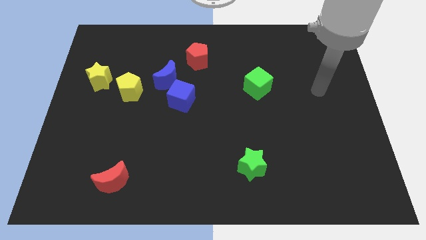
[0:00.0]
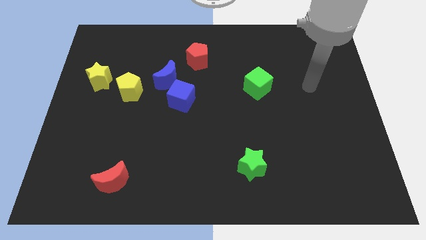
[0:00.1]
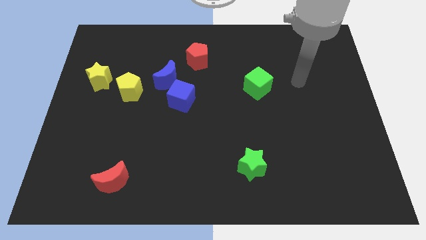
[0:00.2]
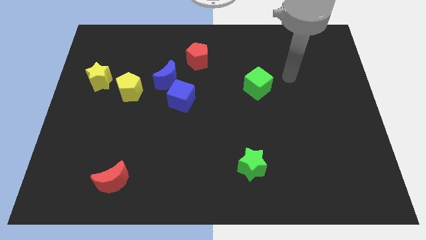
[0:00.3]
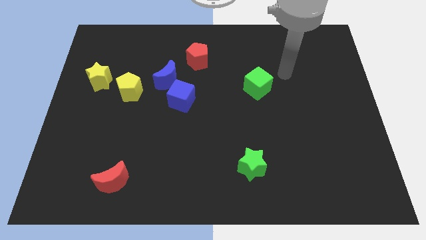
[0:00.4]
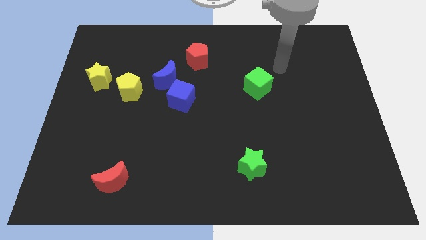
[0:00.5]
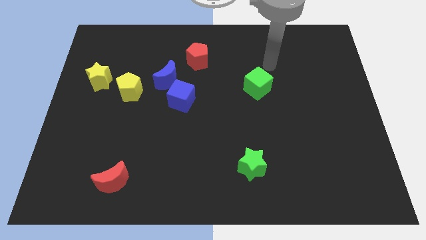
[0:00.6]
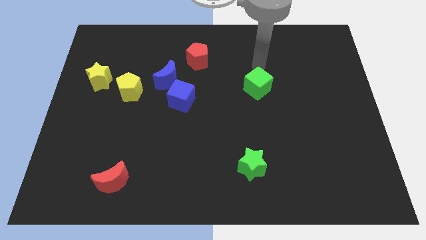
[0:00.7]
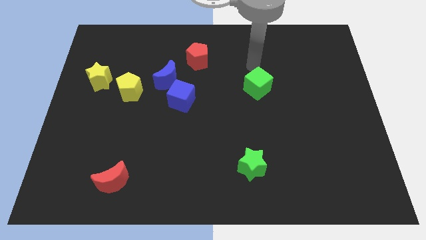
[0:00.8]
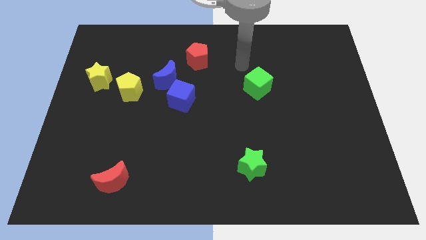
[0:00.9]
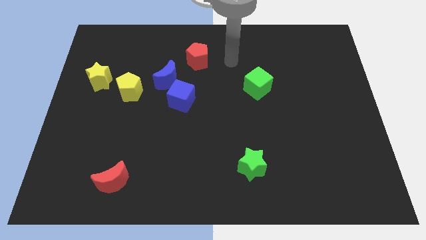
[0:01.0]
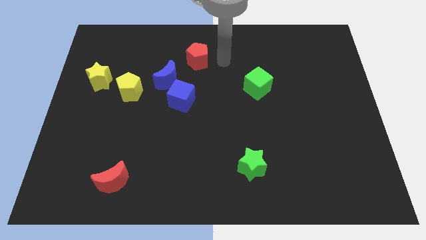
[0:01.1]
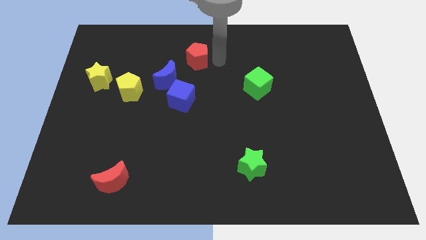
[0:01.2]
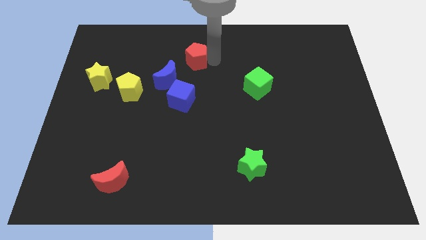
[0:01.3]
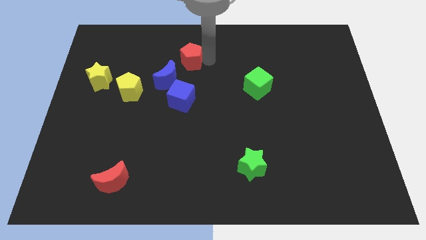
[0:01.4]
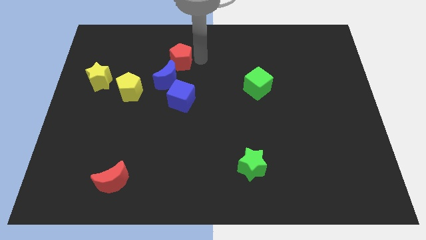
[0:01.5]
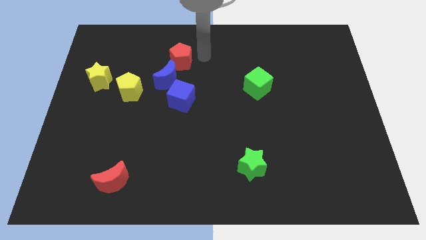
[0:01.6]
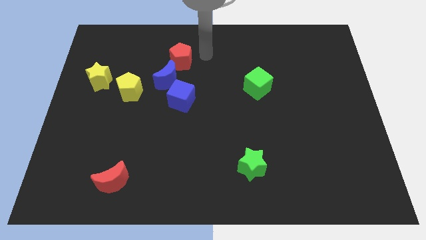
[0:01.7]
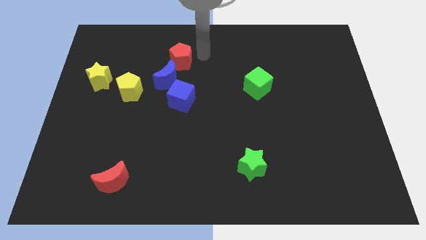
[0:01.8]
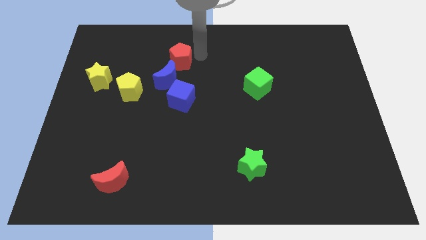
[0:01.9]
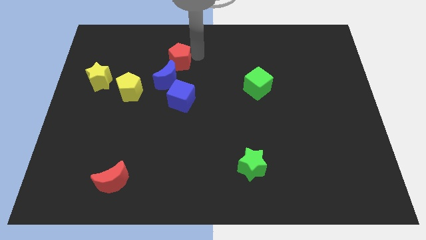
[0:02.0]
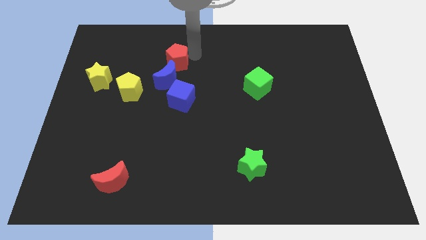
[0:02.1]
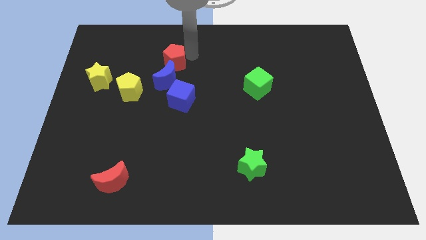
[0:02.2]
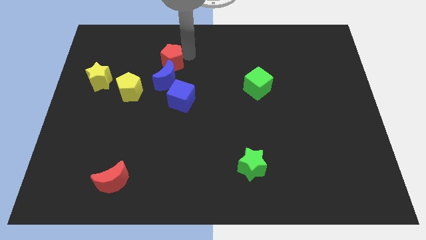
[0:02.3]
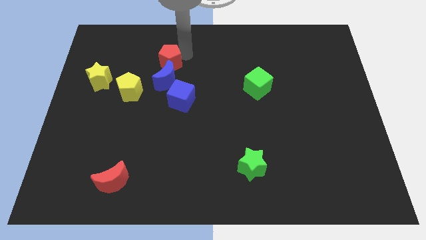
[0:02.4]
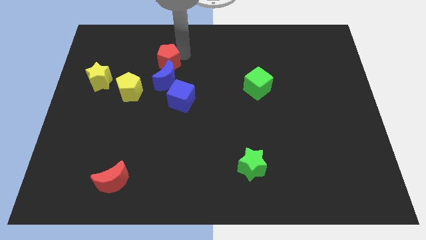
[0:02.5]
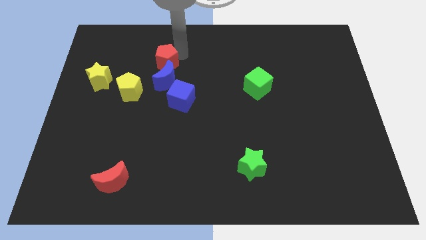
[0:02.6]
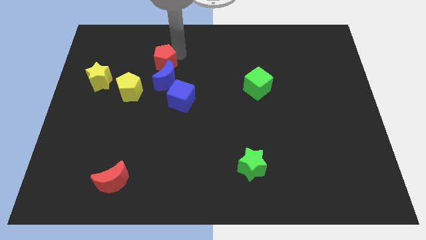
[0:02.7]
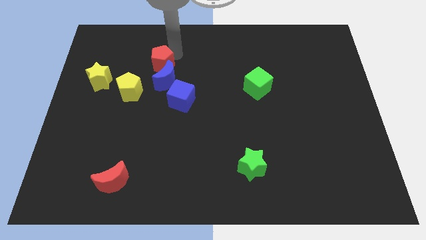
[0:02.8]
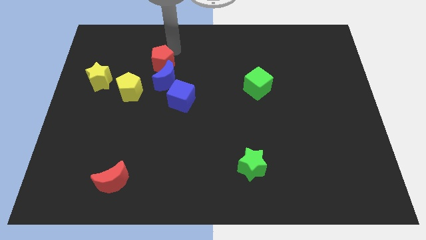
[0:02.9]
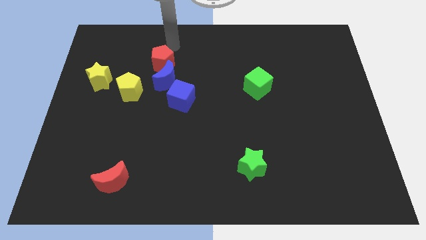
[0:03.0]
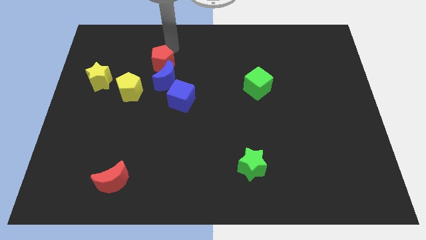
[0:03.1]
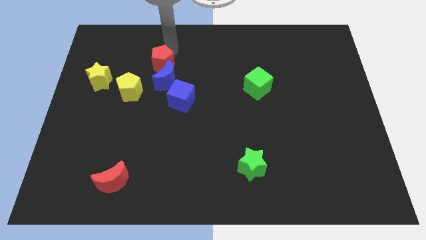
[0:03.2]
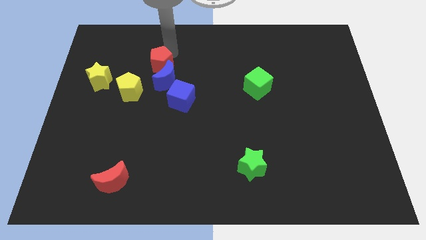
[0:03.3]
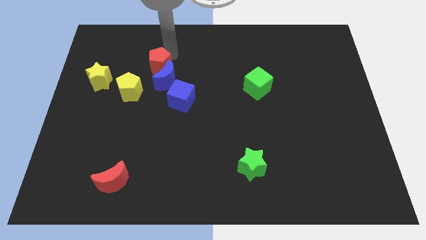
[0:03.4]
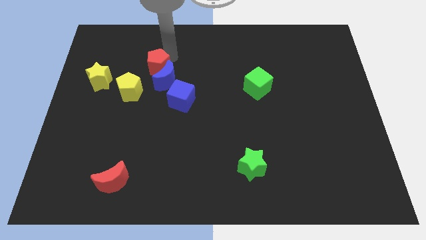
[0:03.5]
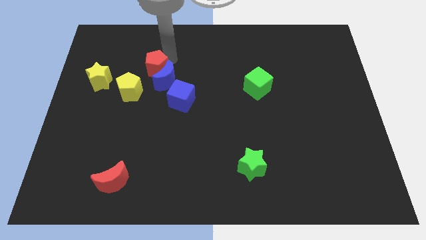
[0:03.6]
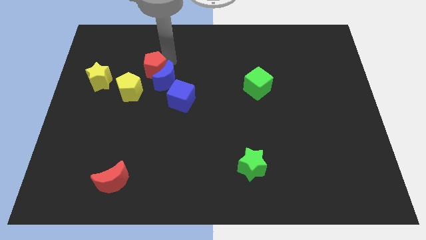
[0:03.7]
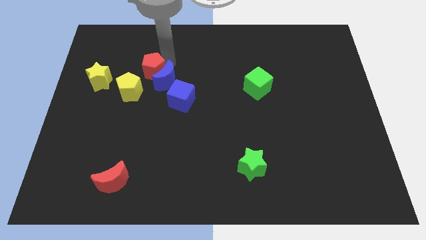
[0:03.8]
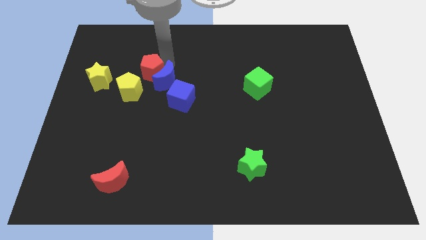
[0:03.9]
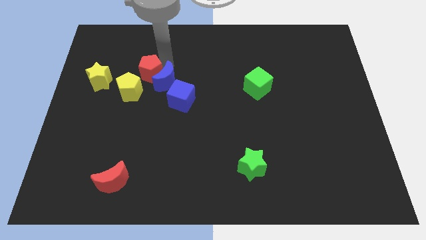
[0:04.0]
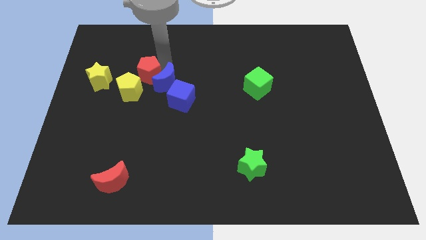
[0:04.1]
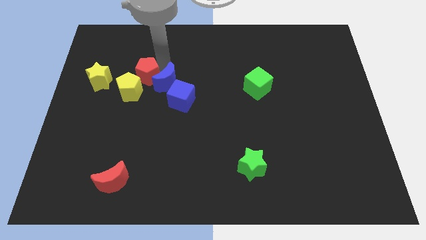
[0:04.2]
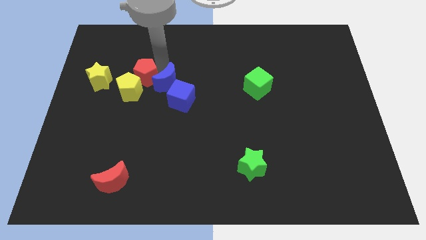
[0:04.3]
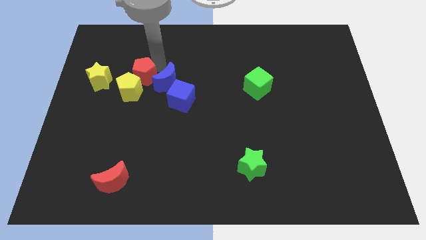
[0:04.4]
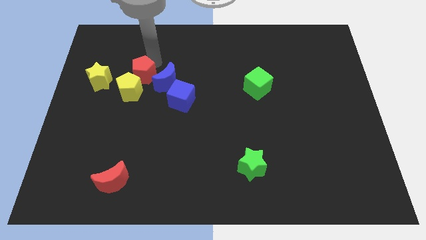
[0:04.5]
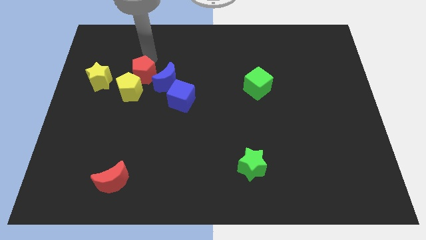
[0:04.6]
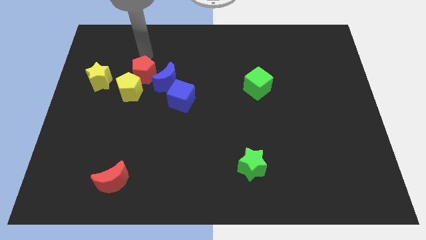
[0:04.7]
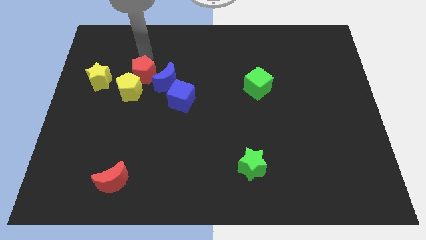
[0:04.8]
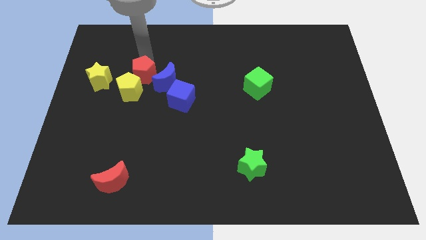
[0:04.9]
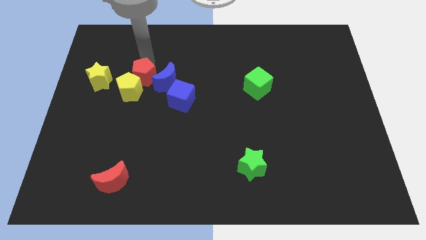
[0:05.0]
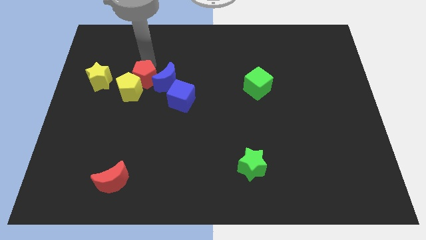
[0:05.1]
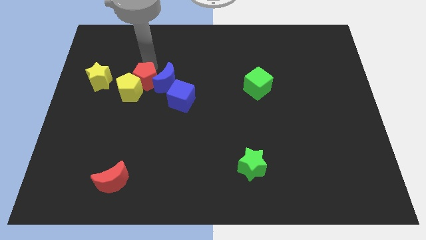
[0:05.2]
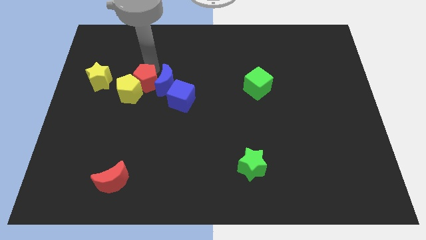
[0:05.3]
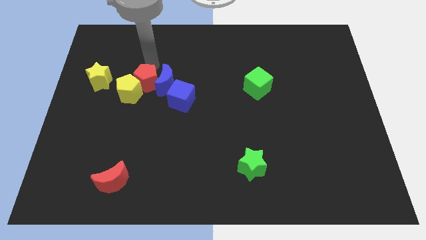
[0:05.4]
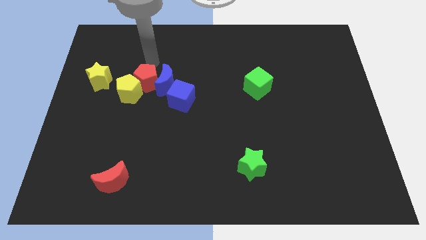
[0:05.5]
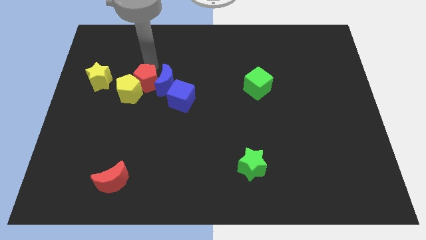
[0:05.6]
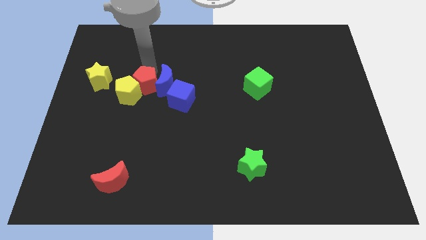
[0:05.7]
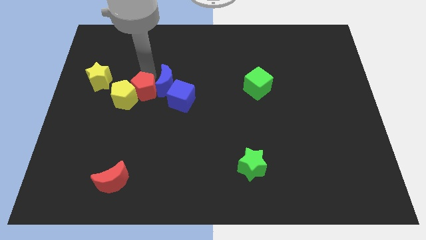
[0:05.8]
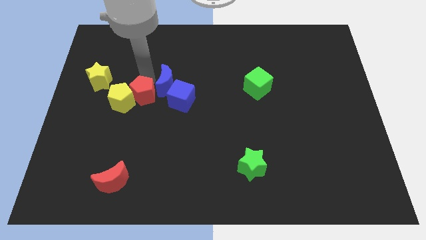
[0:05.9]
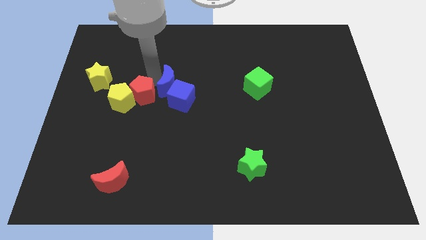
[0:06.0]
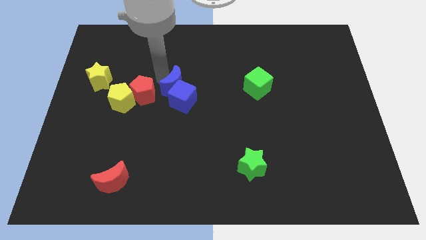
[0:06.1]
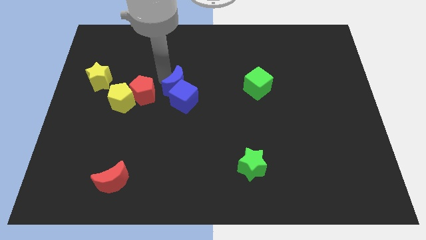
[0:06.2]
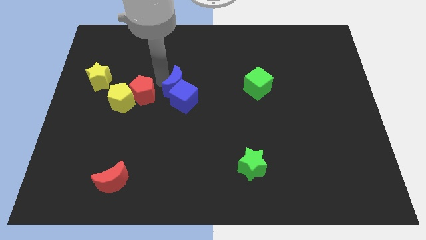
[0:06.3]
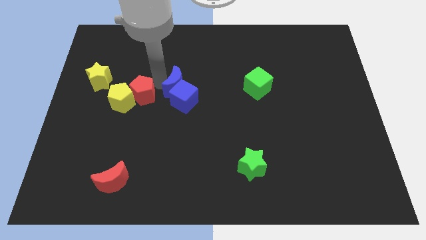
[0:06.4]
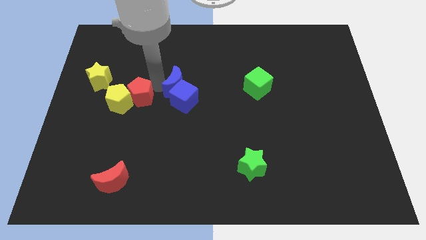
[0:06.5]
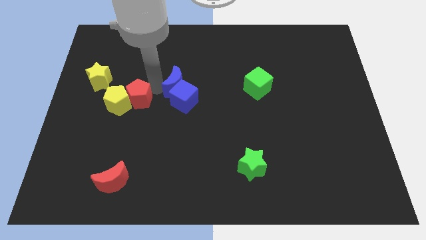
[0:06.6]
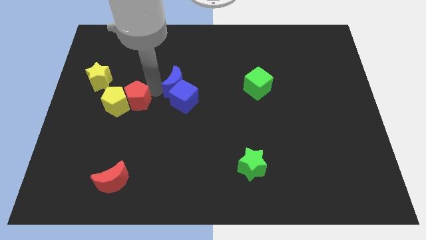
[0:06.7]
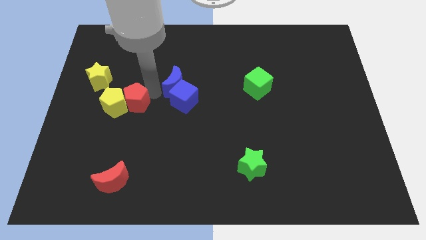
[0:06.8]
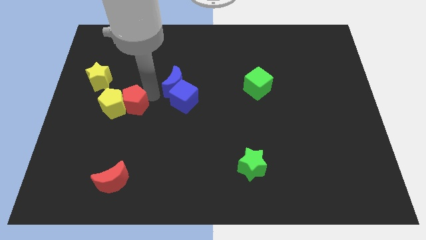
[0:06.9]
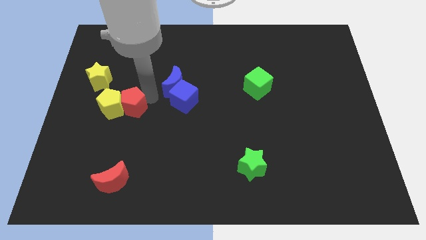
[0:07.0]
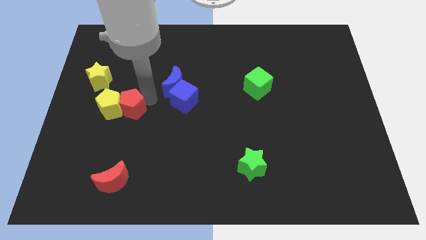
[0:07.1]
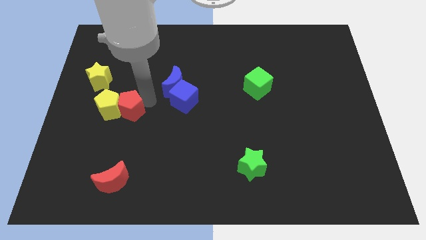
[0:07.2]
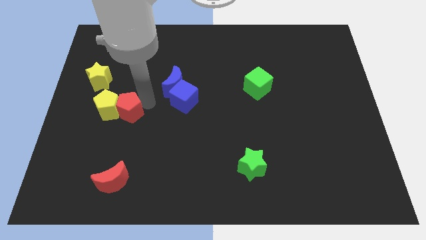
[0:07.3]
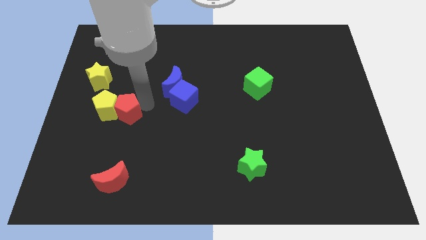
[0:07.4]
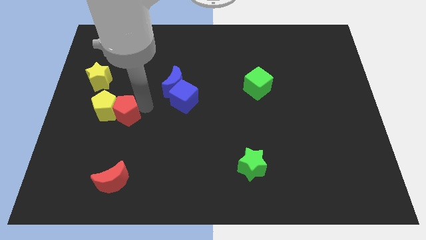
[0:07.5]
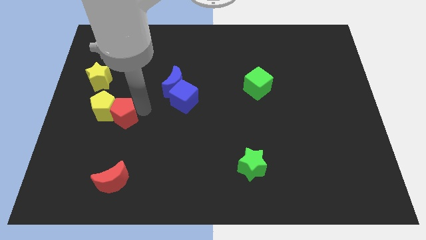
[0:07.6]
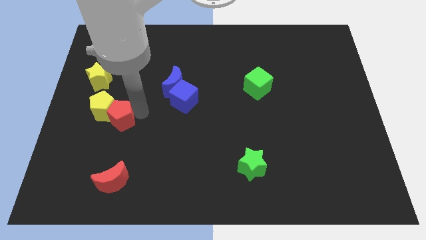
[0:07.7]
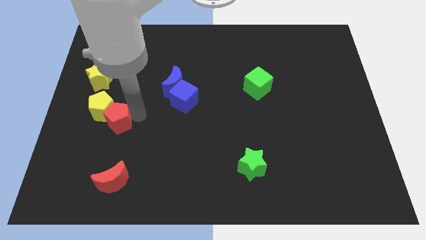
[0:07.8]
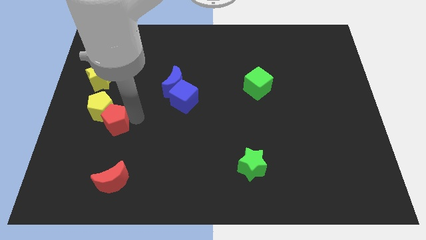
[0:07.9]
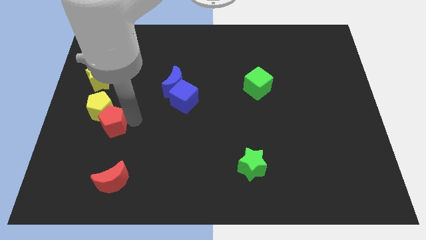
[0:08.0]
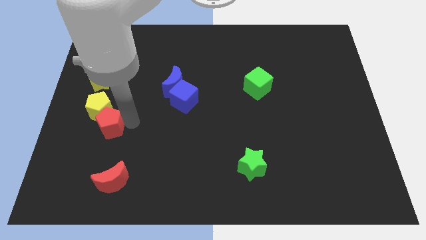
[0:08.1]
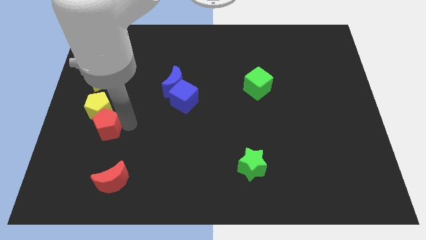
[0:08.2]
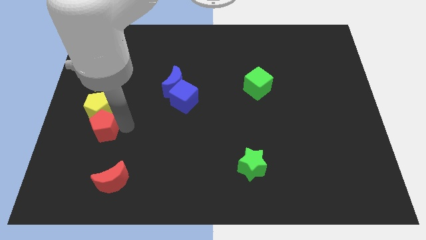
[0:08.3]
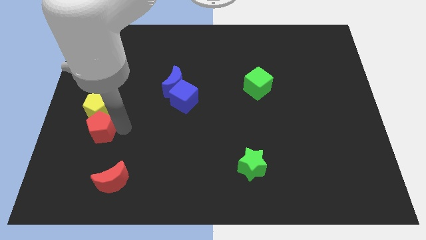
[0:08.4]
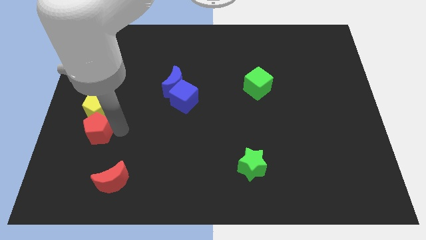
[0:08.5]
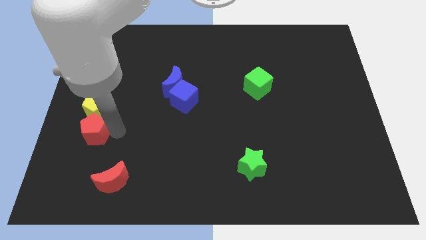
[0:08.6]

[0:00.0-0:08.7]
push the red pentagon below the yellow star
